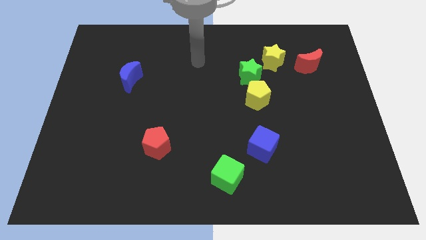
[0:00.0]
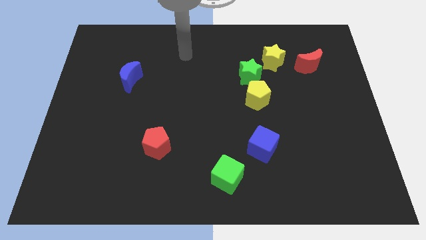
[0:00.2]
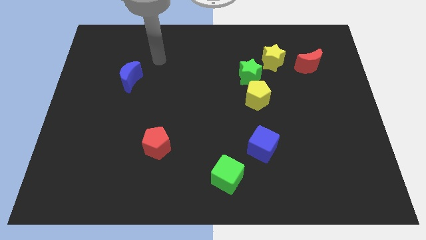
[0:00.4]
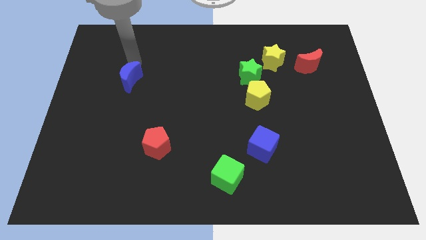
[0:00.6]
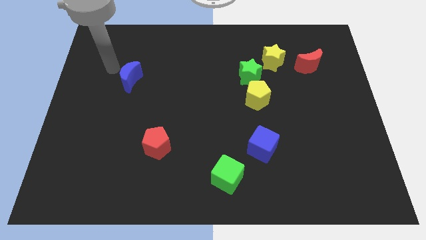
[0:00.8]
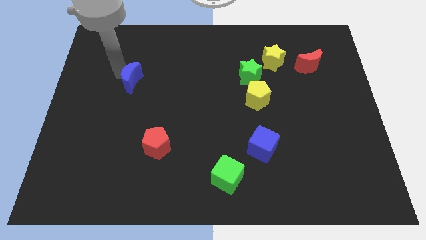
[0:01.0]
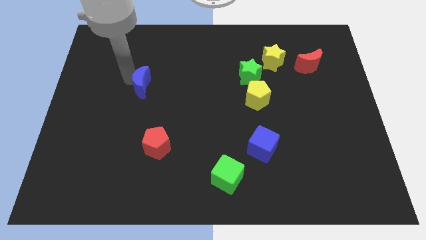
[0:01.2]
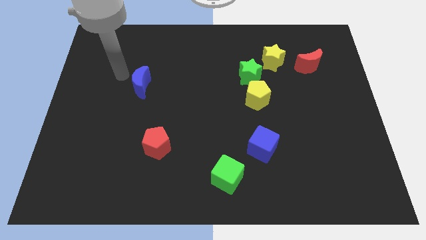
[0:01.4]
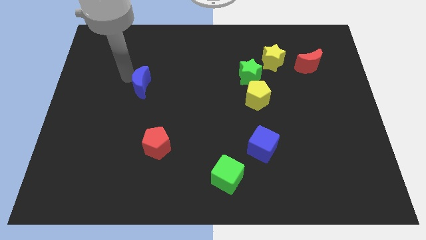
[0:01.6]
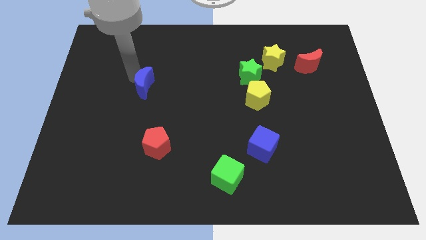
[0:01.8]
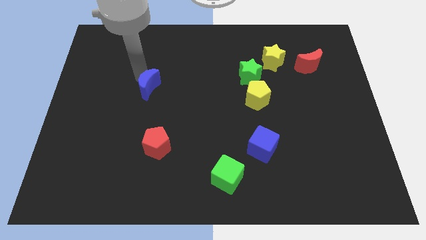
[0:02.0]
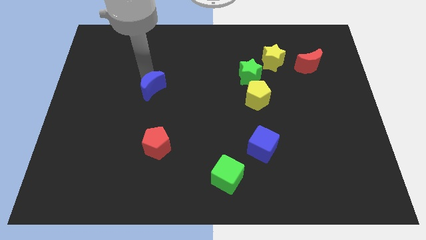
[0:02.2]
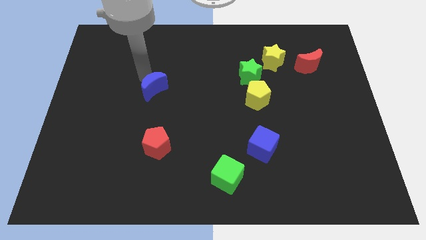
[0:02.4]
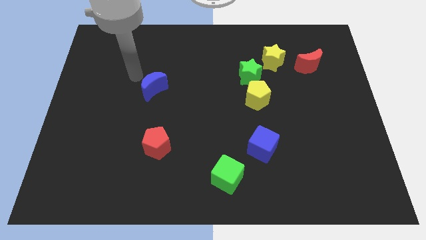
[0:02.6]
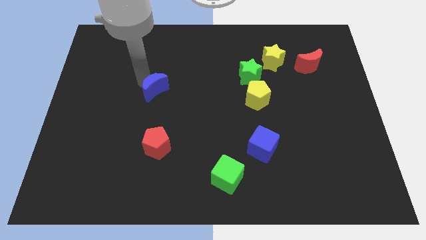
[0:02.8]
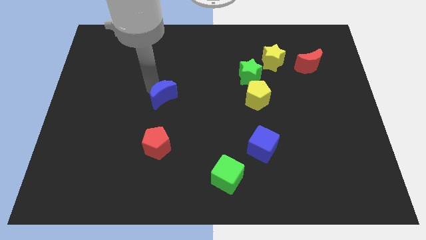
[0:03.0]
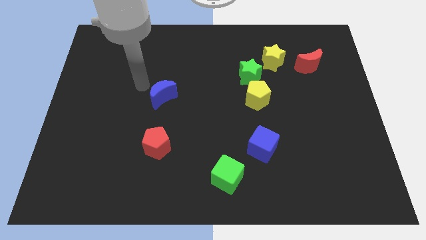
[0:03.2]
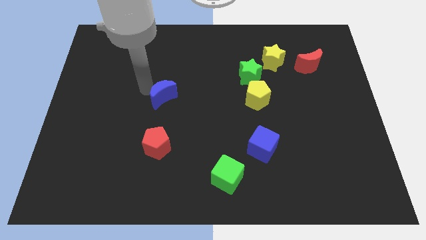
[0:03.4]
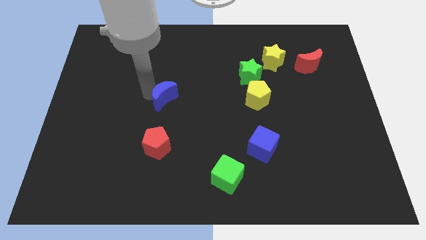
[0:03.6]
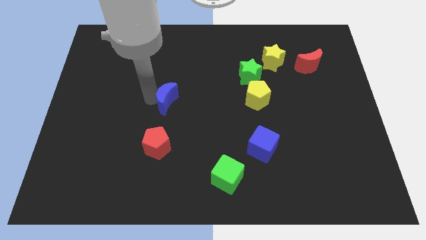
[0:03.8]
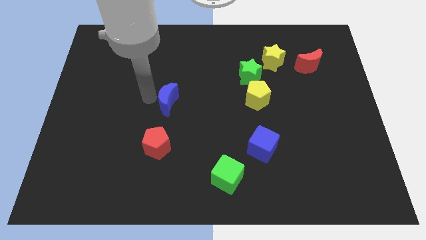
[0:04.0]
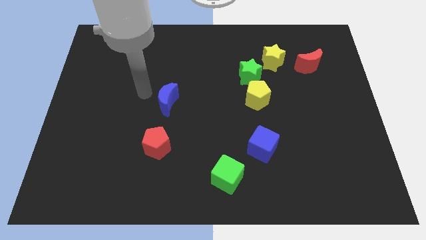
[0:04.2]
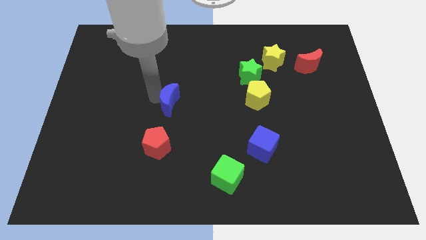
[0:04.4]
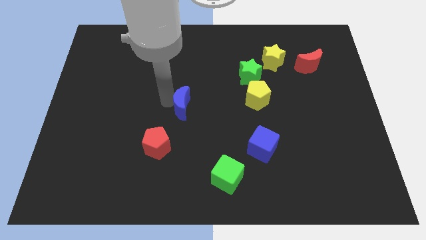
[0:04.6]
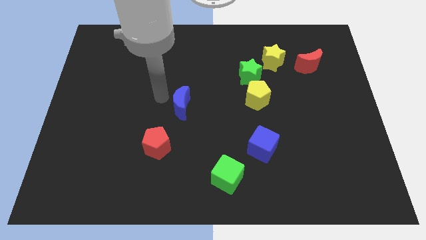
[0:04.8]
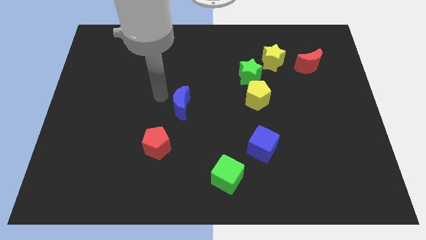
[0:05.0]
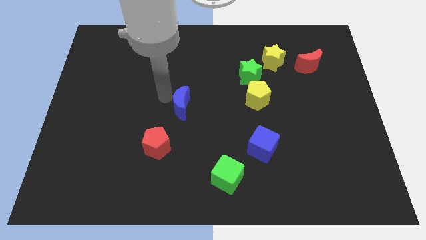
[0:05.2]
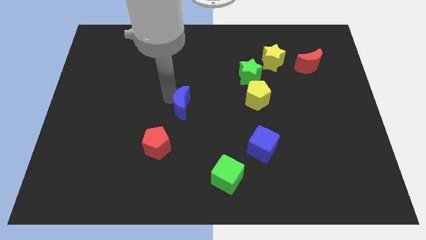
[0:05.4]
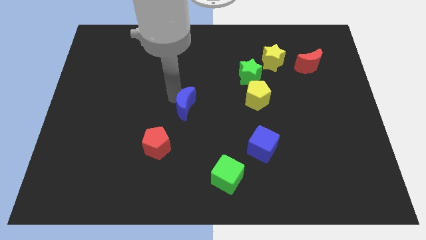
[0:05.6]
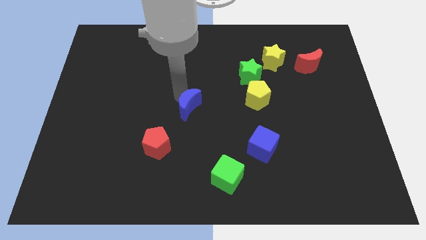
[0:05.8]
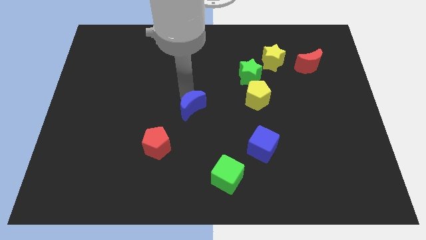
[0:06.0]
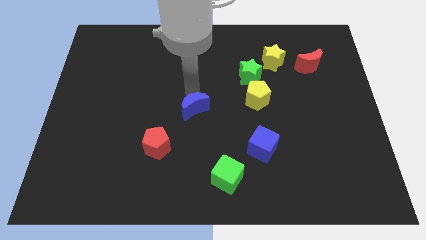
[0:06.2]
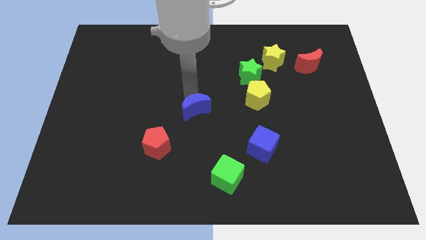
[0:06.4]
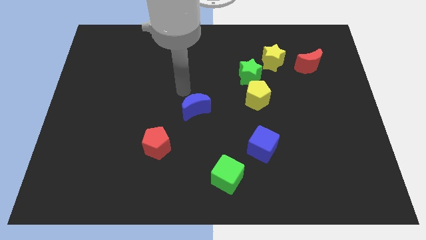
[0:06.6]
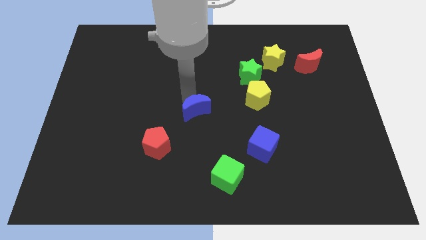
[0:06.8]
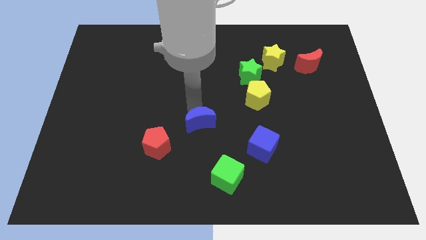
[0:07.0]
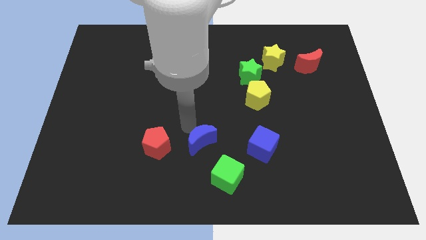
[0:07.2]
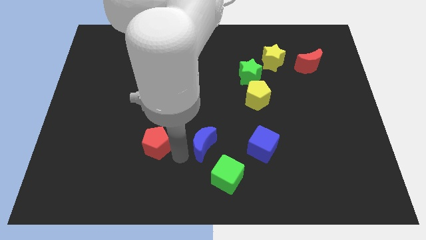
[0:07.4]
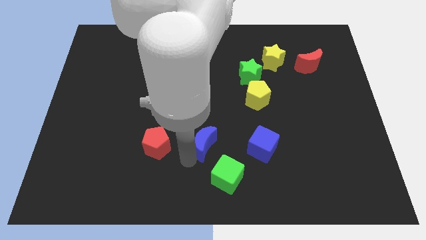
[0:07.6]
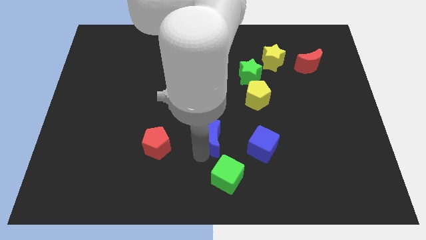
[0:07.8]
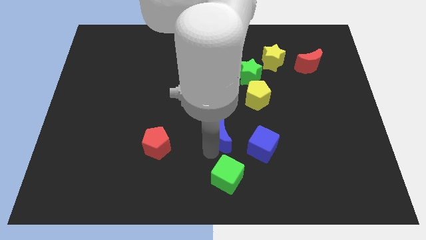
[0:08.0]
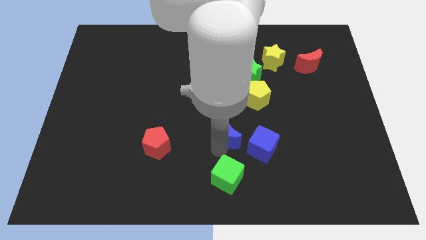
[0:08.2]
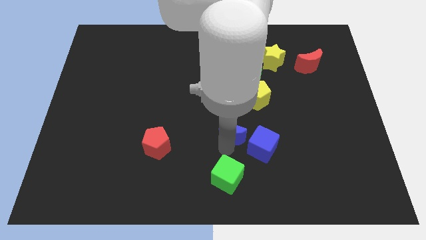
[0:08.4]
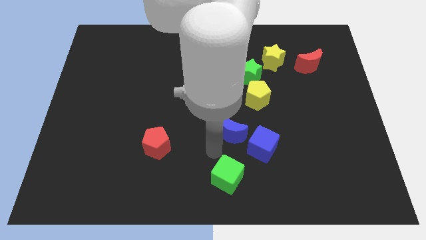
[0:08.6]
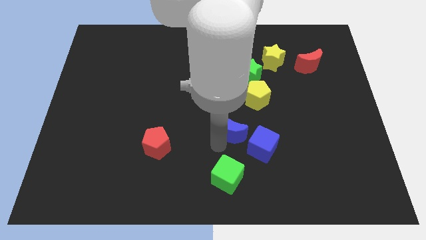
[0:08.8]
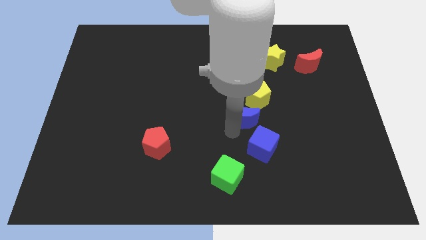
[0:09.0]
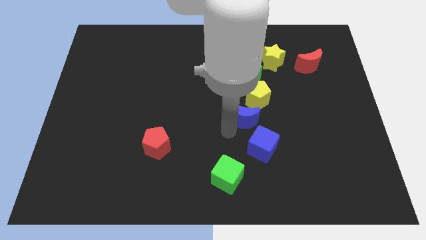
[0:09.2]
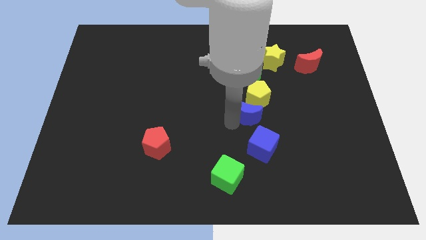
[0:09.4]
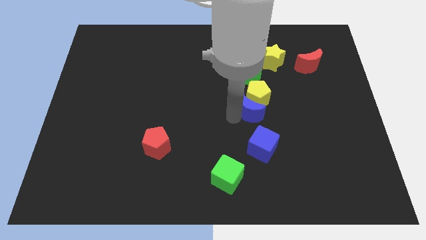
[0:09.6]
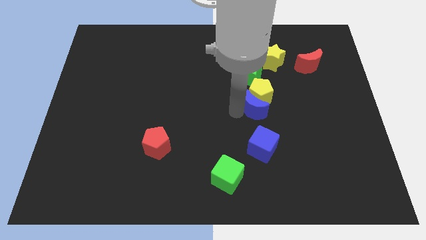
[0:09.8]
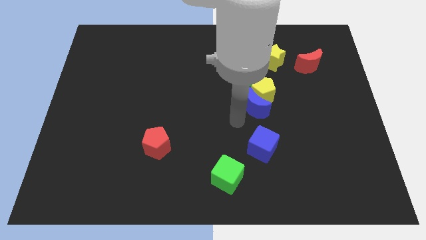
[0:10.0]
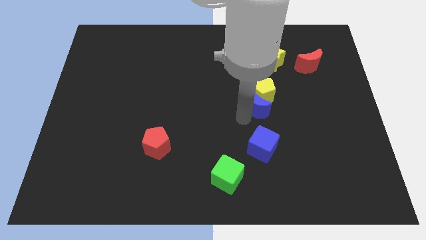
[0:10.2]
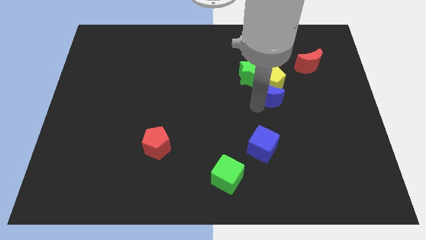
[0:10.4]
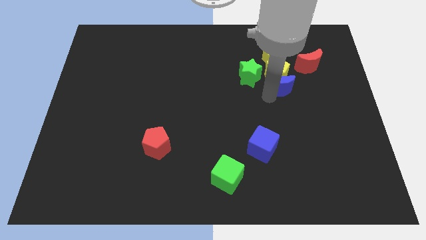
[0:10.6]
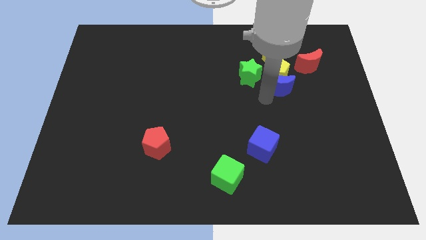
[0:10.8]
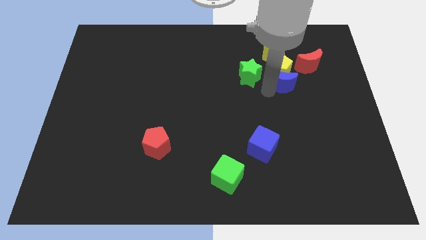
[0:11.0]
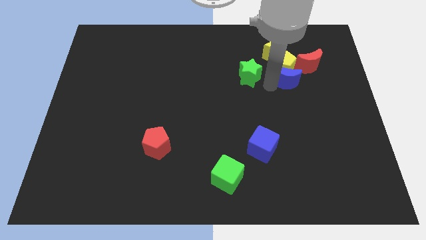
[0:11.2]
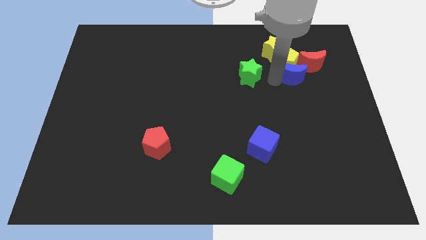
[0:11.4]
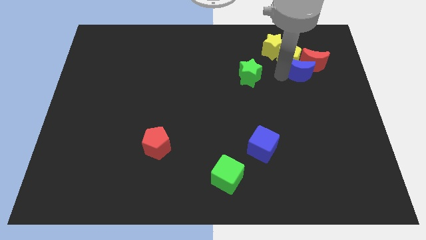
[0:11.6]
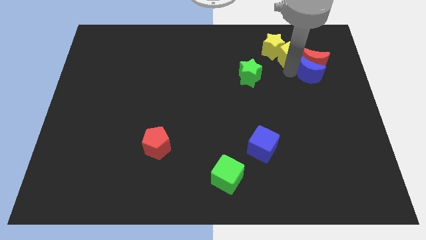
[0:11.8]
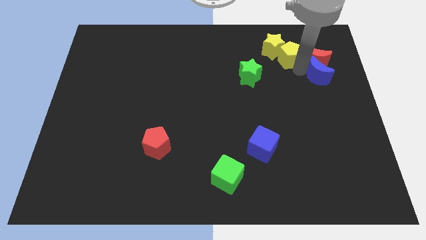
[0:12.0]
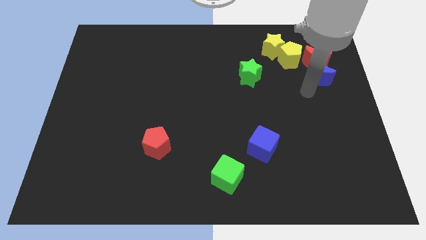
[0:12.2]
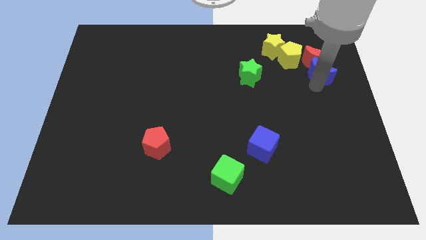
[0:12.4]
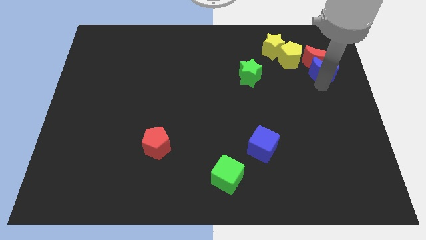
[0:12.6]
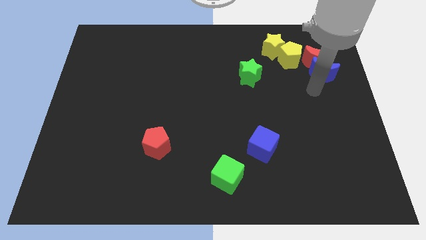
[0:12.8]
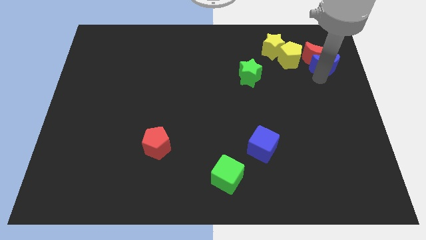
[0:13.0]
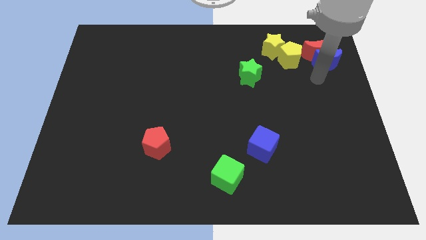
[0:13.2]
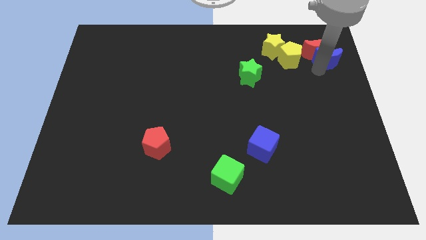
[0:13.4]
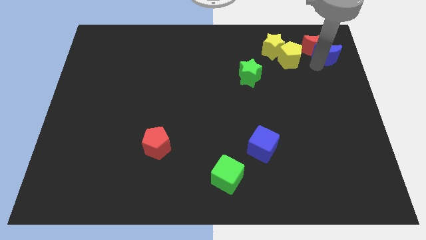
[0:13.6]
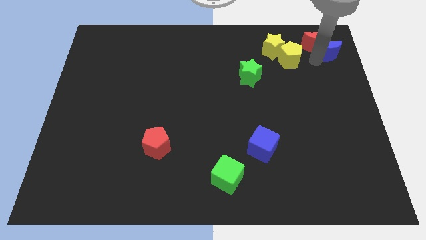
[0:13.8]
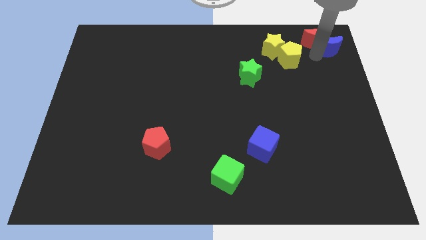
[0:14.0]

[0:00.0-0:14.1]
move the blue moon to the top right
